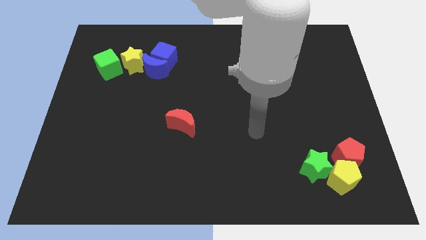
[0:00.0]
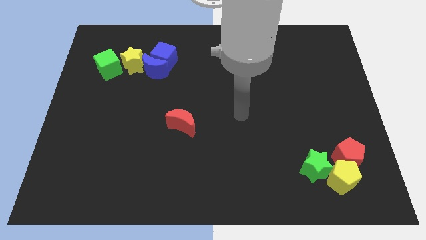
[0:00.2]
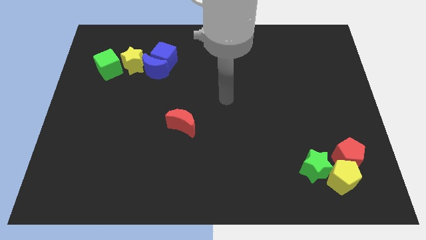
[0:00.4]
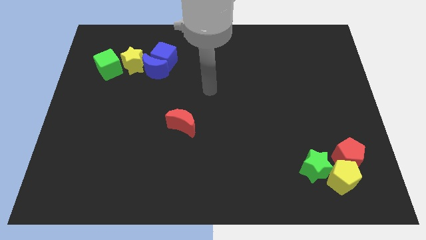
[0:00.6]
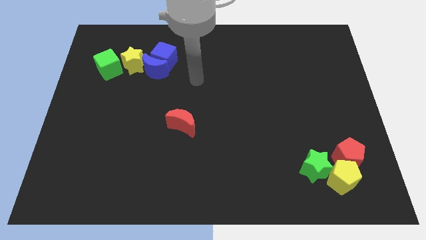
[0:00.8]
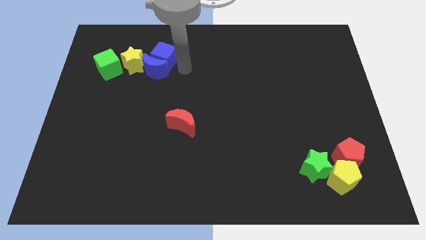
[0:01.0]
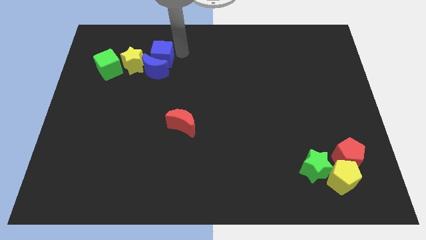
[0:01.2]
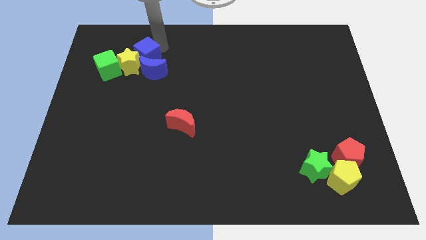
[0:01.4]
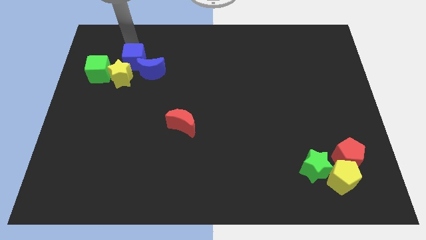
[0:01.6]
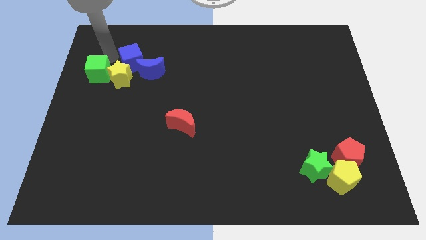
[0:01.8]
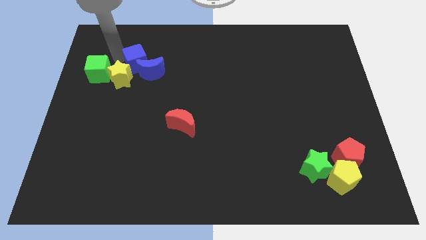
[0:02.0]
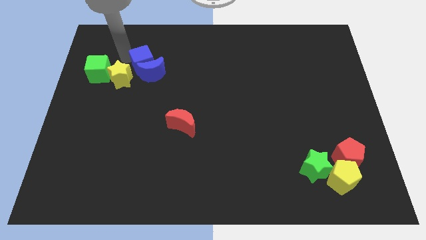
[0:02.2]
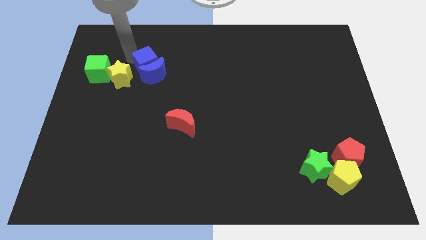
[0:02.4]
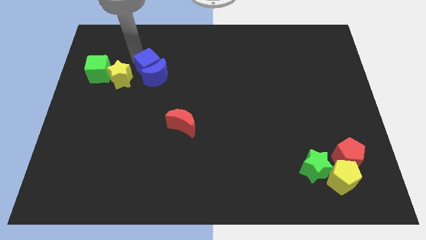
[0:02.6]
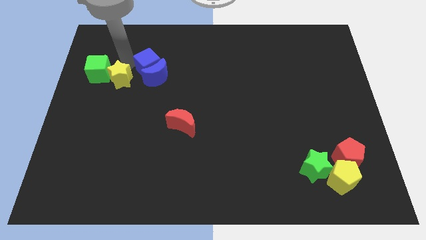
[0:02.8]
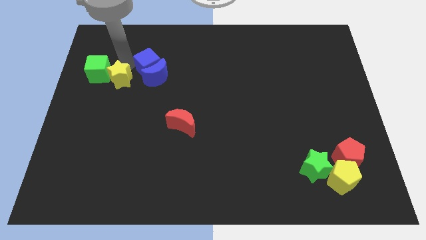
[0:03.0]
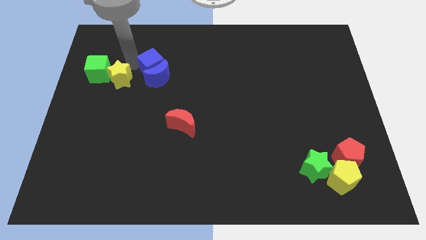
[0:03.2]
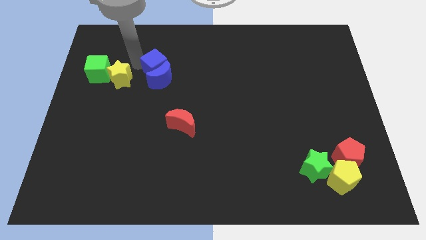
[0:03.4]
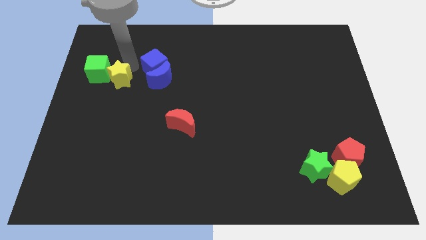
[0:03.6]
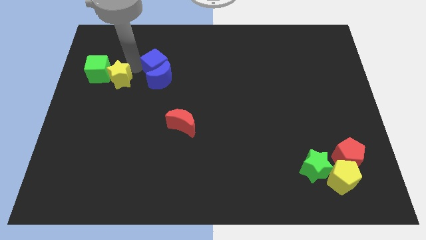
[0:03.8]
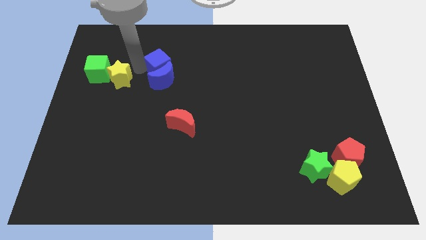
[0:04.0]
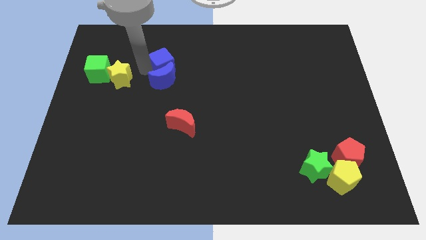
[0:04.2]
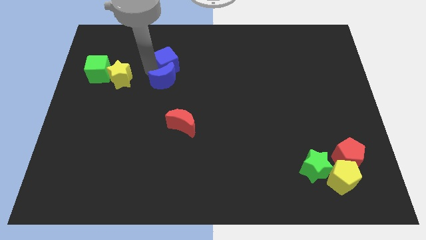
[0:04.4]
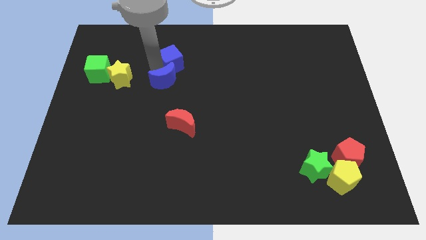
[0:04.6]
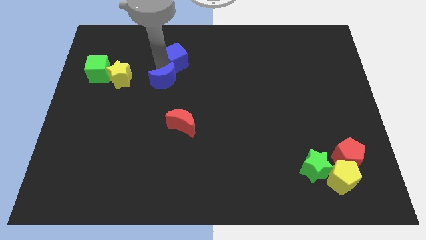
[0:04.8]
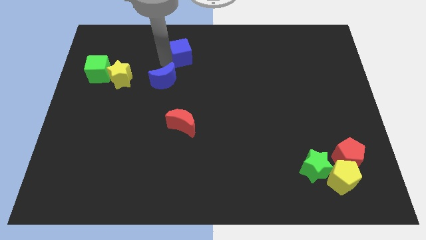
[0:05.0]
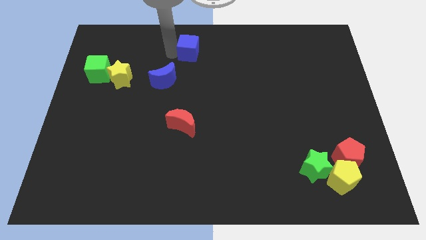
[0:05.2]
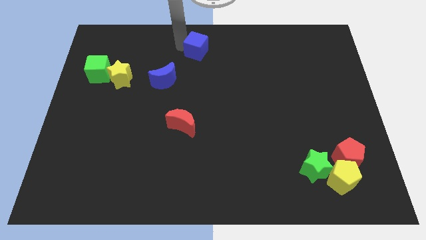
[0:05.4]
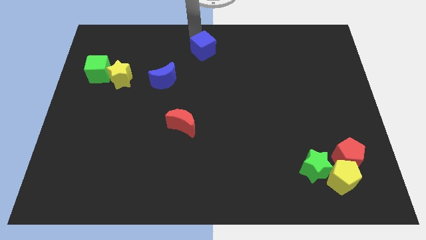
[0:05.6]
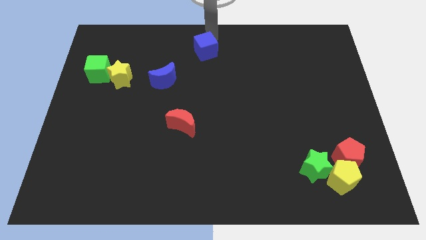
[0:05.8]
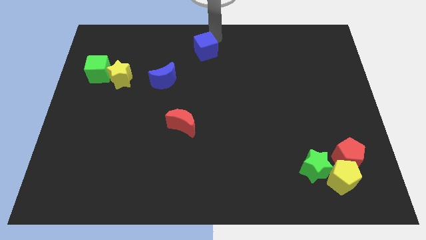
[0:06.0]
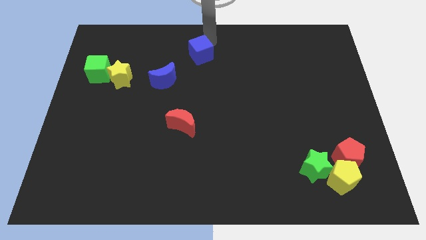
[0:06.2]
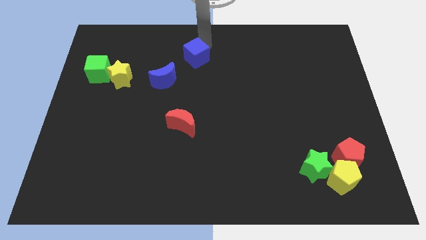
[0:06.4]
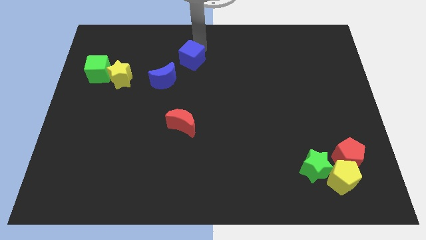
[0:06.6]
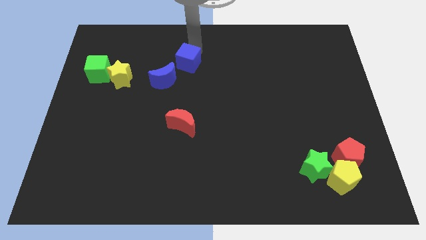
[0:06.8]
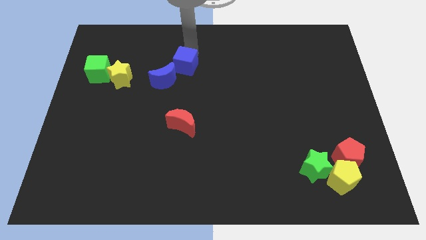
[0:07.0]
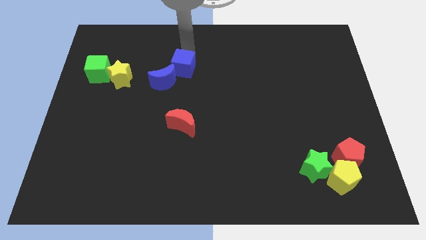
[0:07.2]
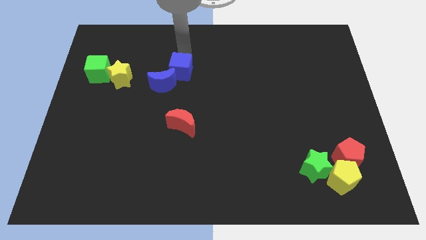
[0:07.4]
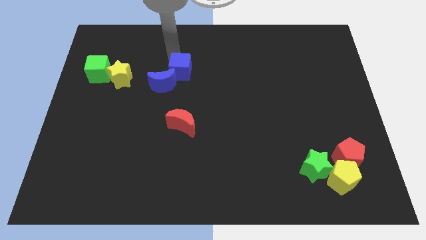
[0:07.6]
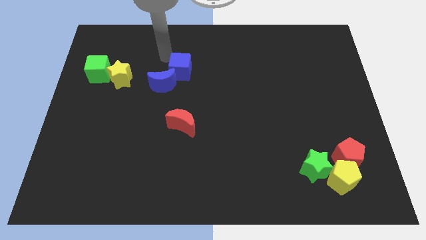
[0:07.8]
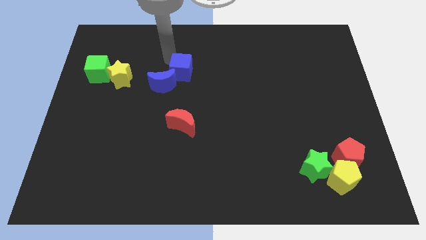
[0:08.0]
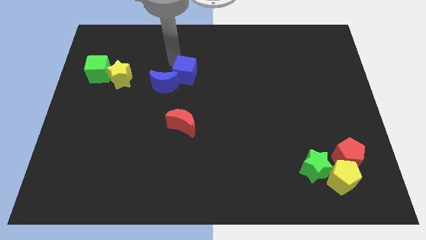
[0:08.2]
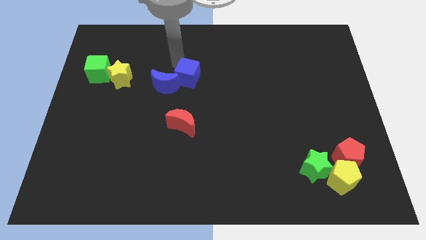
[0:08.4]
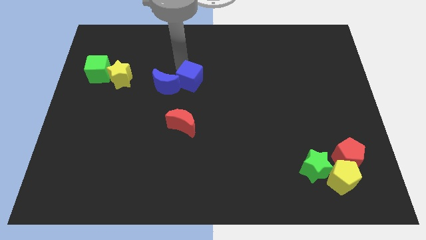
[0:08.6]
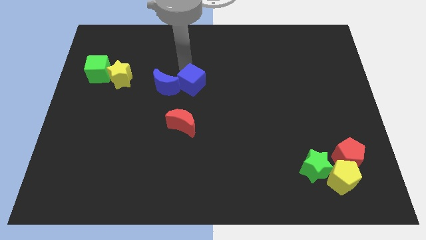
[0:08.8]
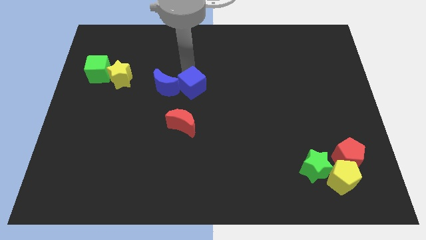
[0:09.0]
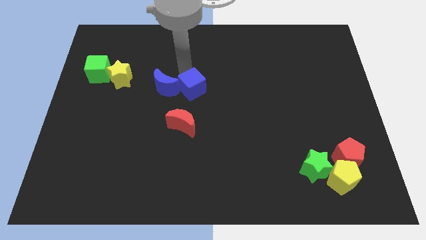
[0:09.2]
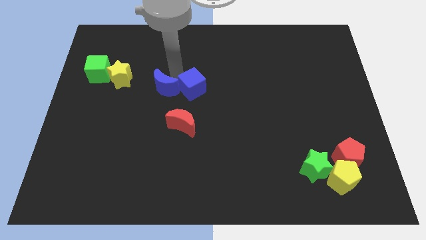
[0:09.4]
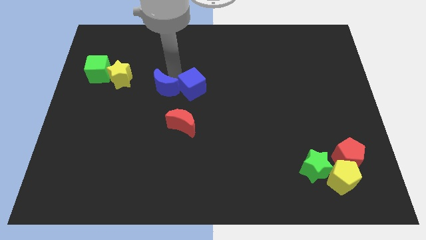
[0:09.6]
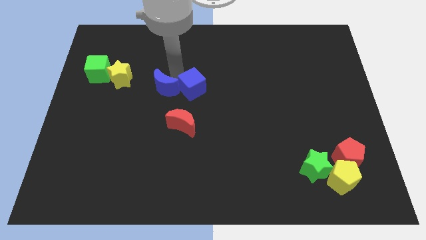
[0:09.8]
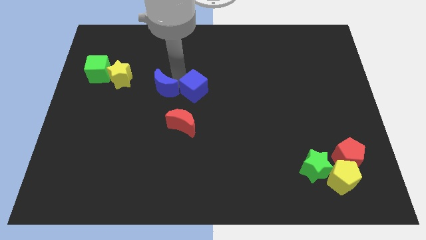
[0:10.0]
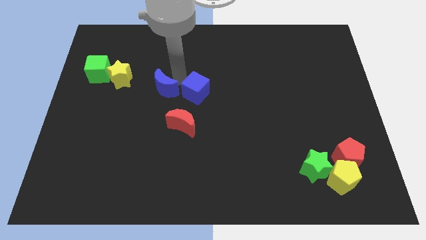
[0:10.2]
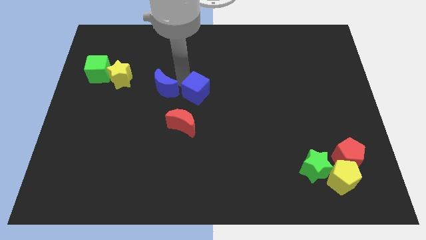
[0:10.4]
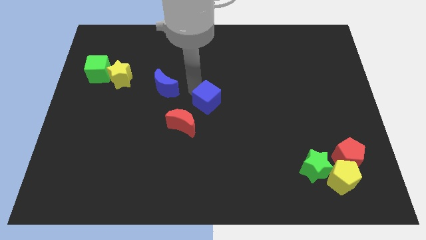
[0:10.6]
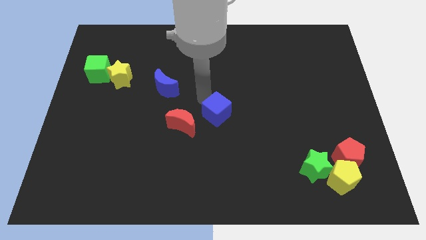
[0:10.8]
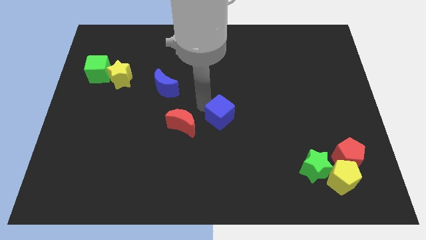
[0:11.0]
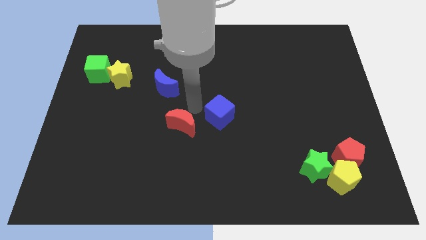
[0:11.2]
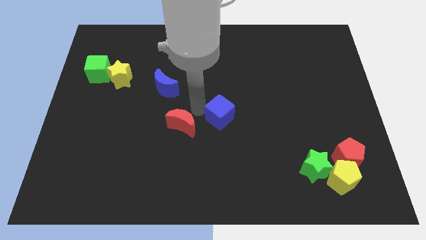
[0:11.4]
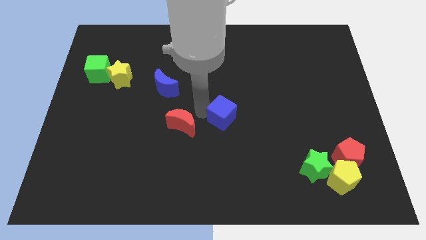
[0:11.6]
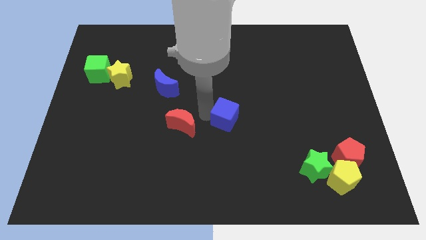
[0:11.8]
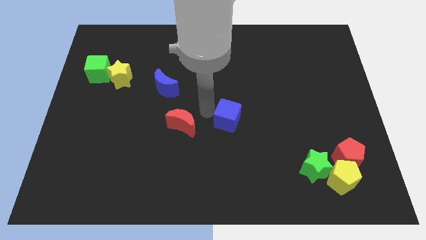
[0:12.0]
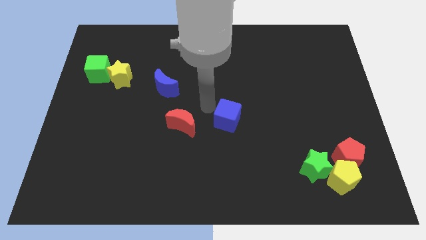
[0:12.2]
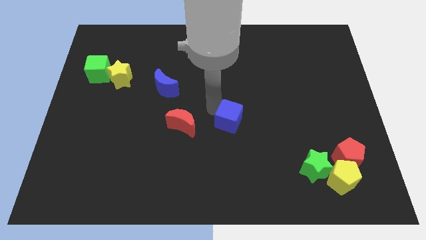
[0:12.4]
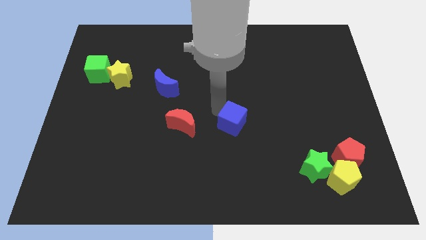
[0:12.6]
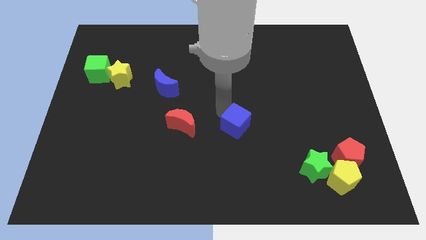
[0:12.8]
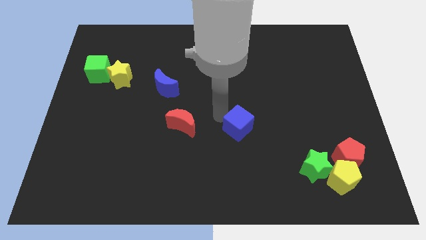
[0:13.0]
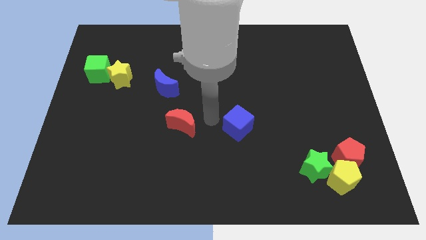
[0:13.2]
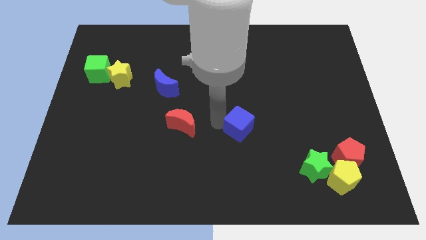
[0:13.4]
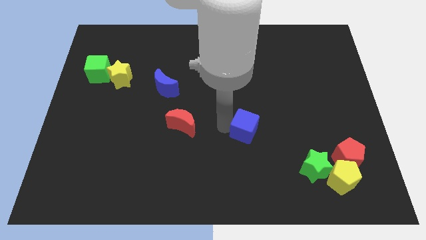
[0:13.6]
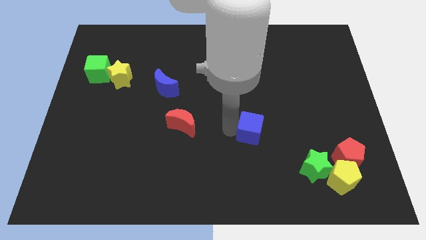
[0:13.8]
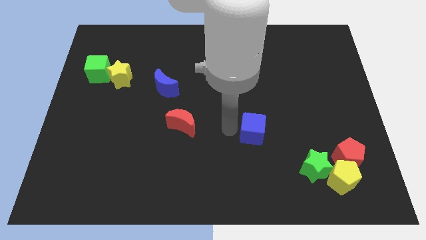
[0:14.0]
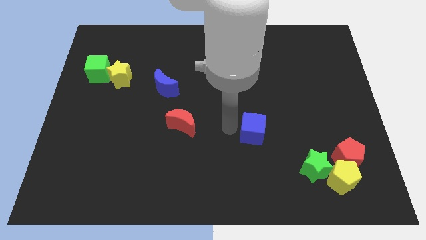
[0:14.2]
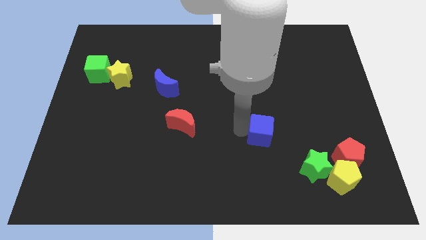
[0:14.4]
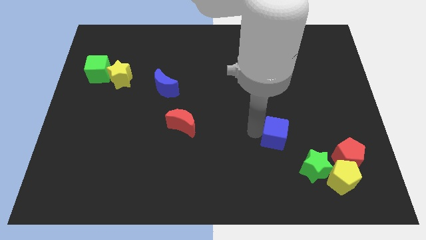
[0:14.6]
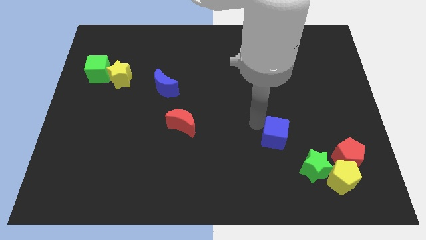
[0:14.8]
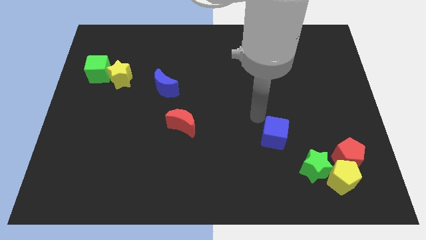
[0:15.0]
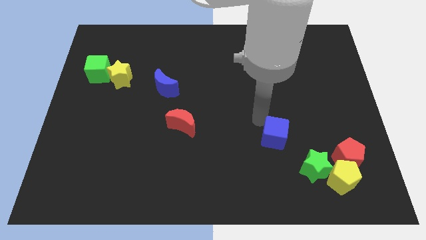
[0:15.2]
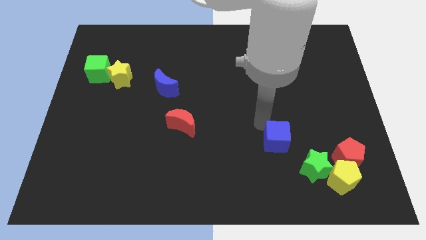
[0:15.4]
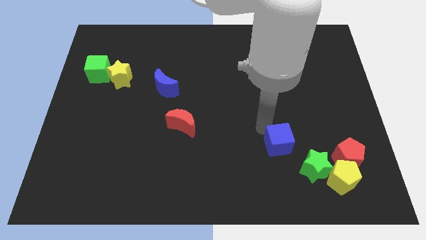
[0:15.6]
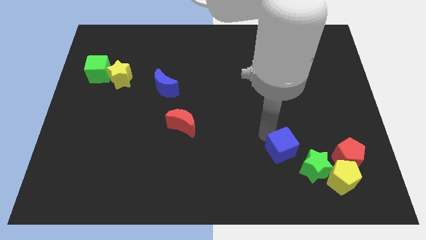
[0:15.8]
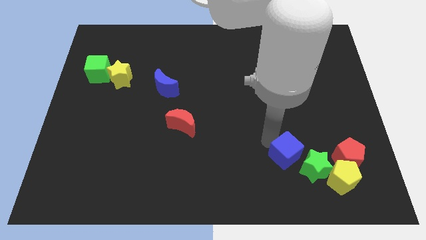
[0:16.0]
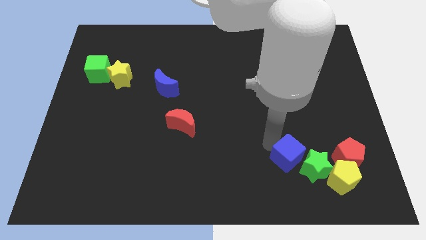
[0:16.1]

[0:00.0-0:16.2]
slide the blue cube next to the green star
